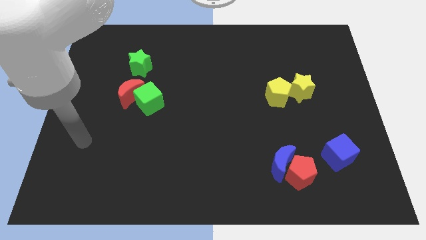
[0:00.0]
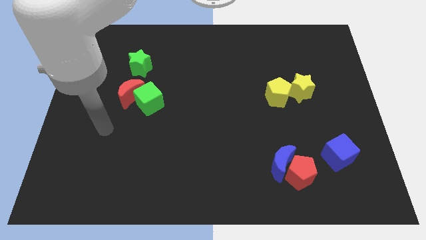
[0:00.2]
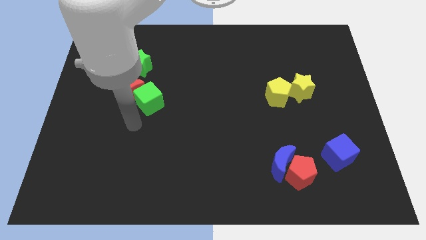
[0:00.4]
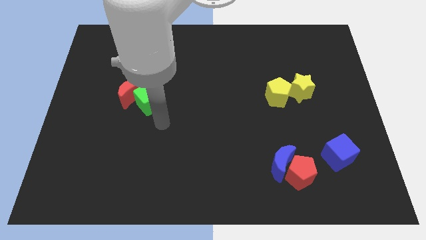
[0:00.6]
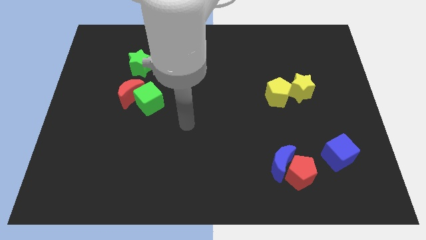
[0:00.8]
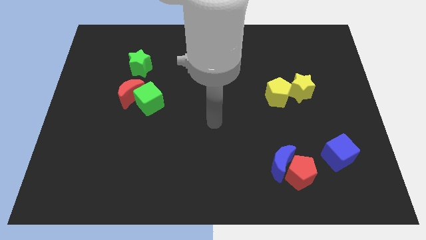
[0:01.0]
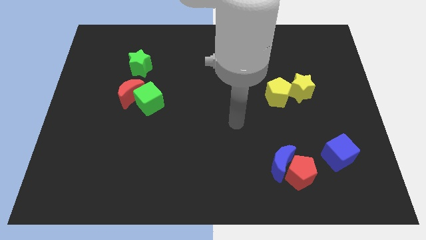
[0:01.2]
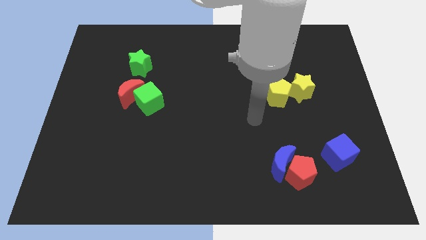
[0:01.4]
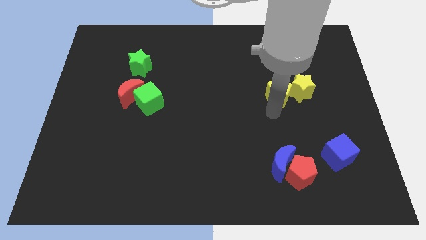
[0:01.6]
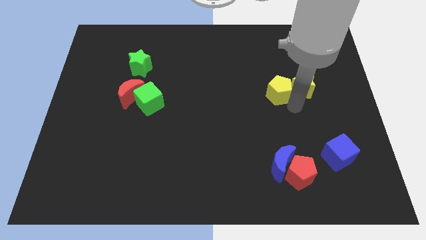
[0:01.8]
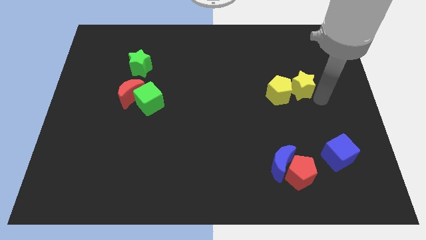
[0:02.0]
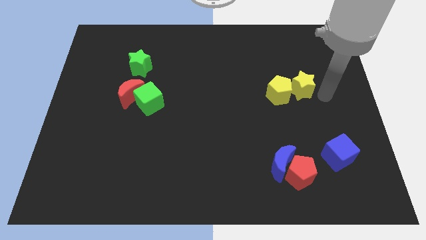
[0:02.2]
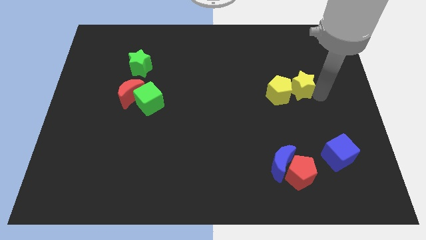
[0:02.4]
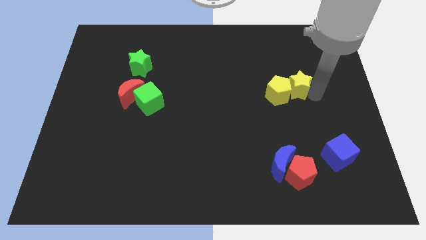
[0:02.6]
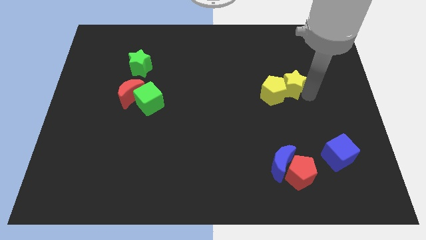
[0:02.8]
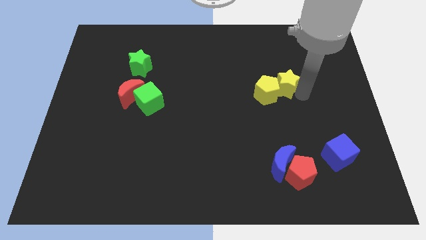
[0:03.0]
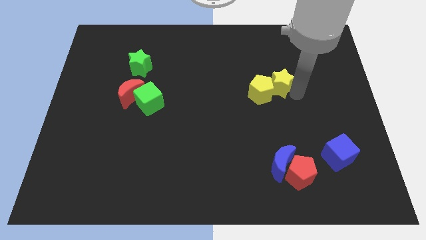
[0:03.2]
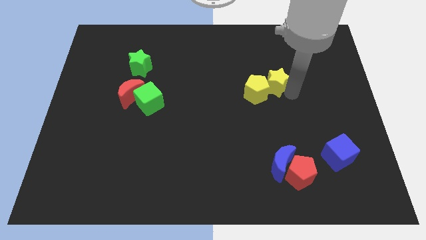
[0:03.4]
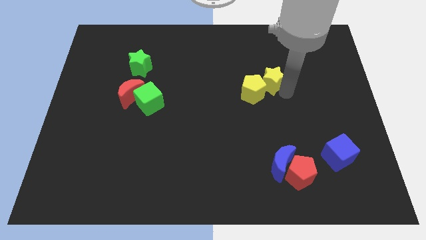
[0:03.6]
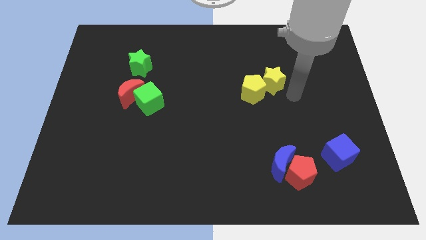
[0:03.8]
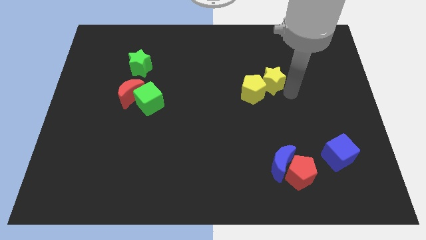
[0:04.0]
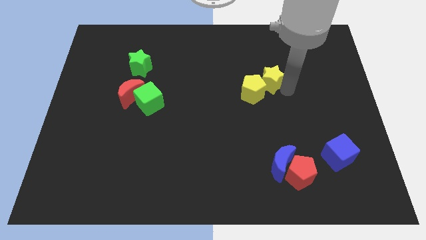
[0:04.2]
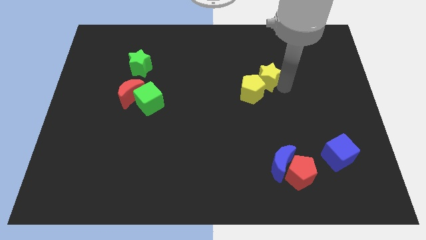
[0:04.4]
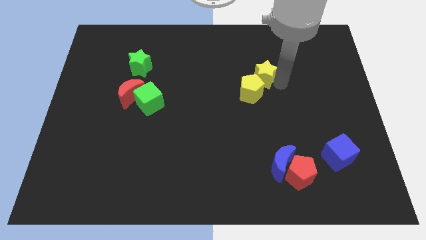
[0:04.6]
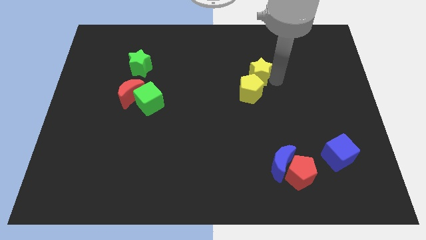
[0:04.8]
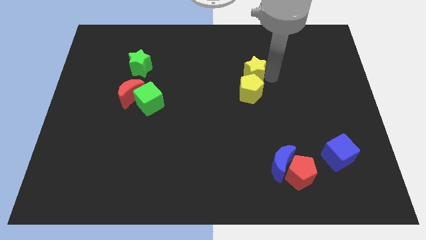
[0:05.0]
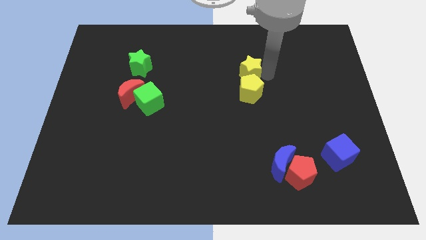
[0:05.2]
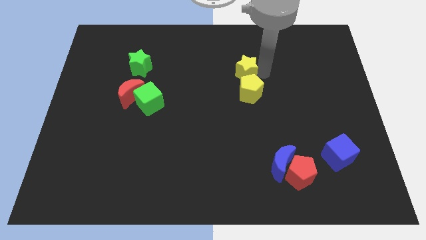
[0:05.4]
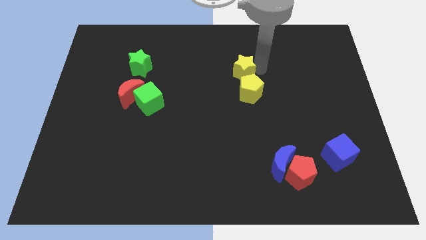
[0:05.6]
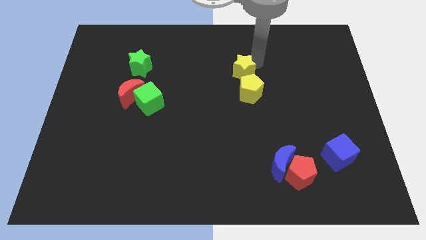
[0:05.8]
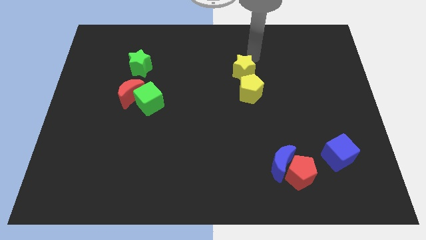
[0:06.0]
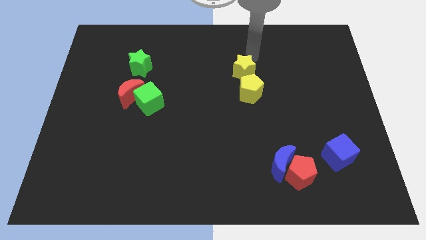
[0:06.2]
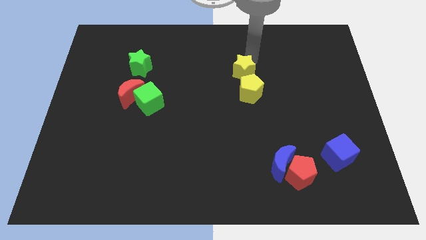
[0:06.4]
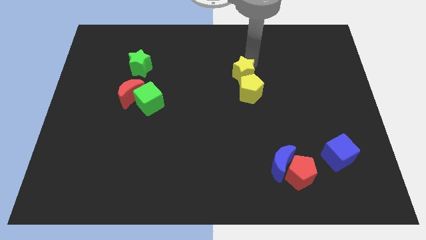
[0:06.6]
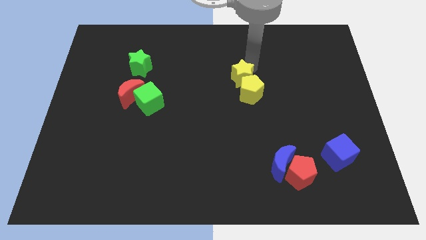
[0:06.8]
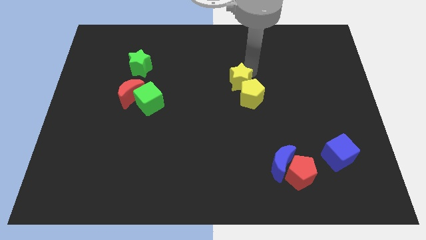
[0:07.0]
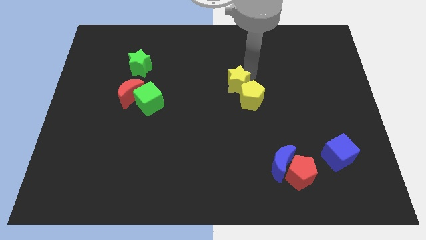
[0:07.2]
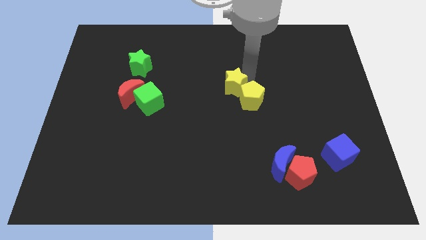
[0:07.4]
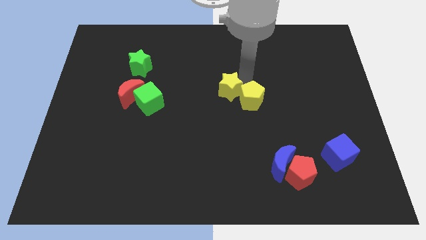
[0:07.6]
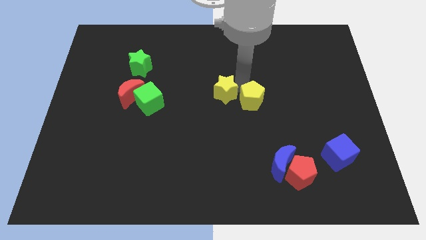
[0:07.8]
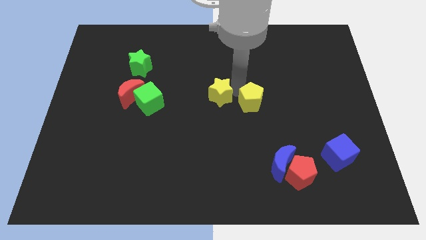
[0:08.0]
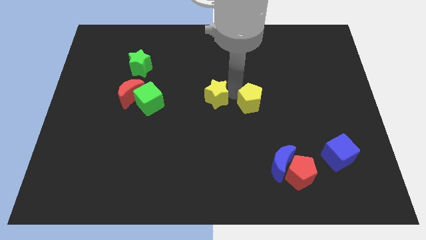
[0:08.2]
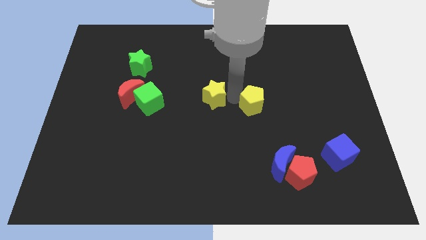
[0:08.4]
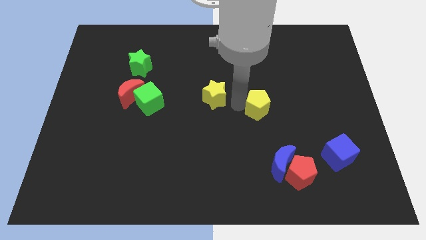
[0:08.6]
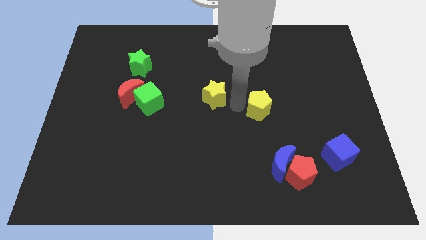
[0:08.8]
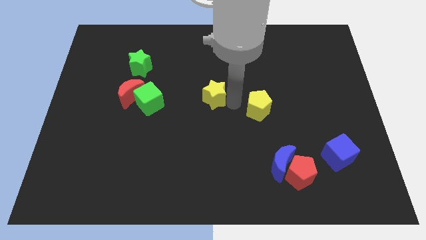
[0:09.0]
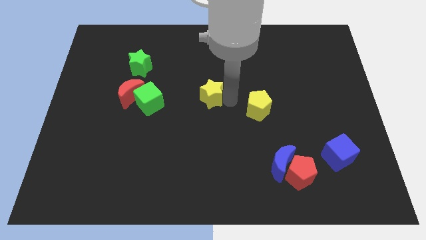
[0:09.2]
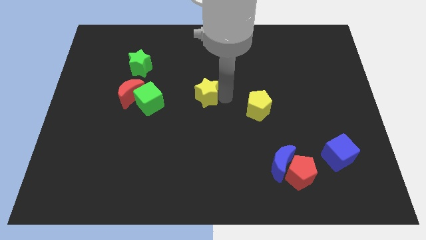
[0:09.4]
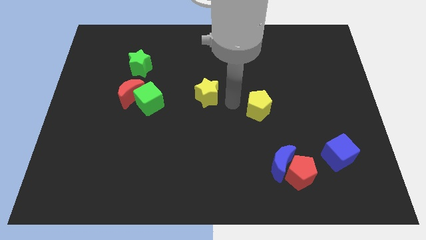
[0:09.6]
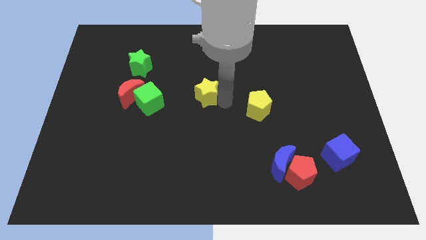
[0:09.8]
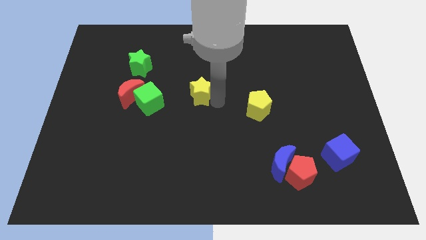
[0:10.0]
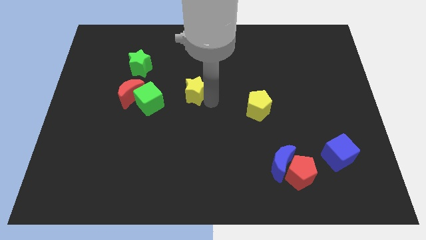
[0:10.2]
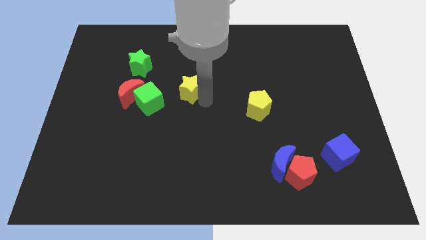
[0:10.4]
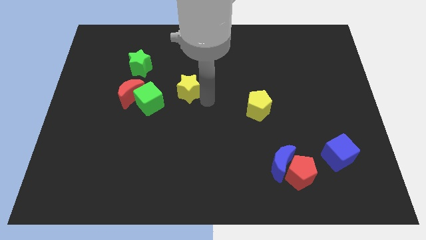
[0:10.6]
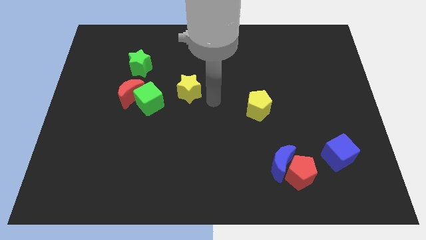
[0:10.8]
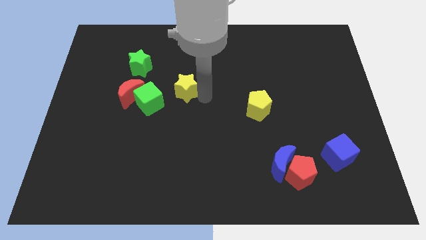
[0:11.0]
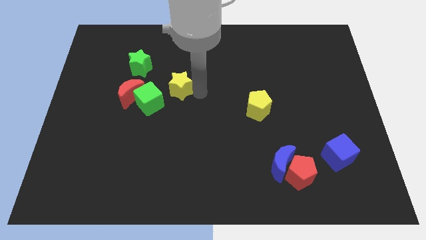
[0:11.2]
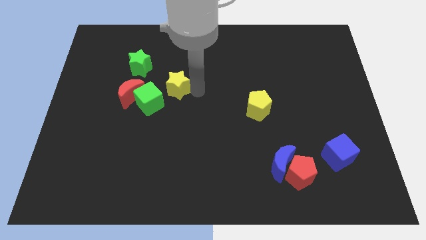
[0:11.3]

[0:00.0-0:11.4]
push the yellow star diagonally down and to the right of the green star

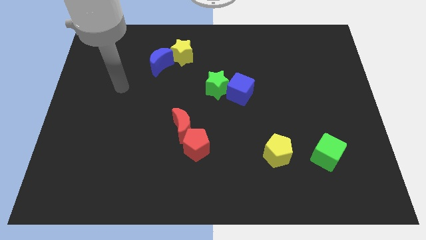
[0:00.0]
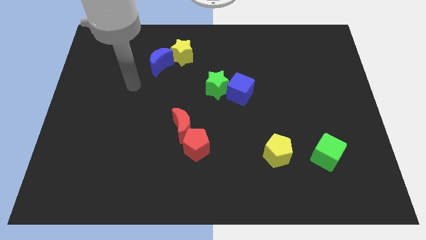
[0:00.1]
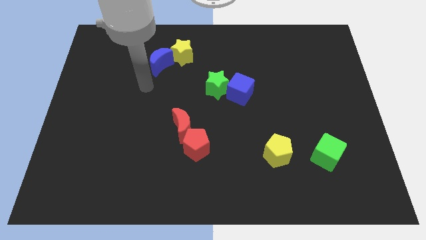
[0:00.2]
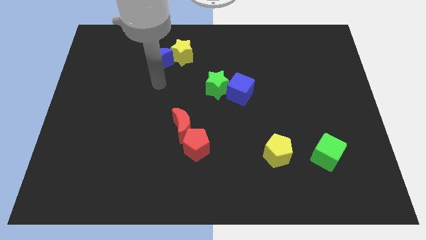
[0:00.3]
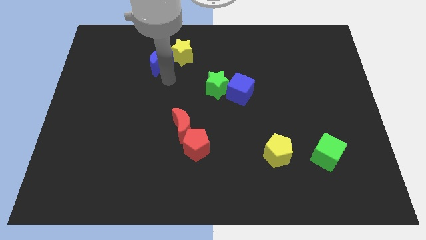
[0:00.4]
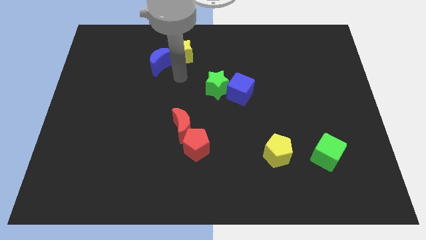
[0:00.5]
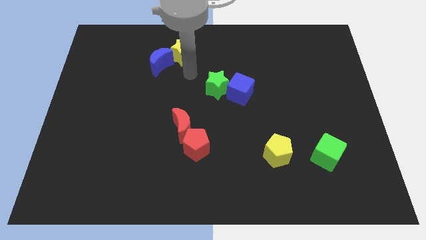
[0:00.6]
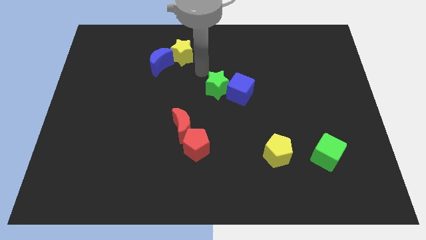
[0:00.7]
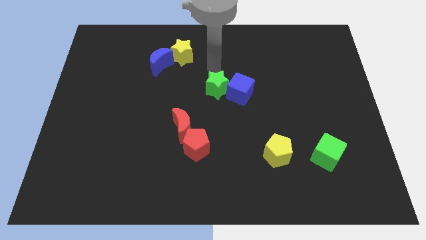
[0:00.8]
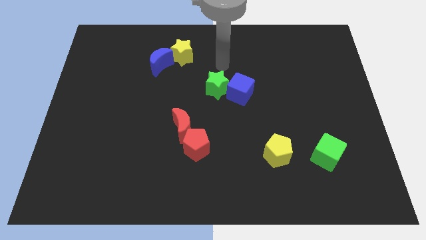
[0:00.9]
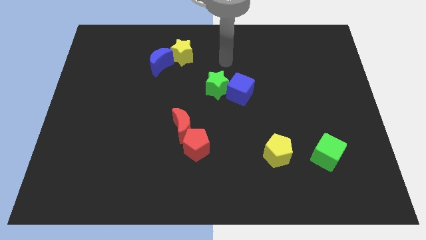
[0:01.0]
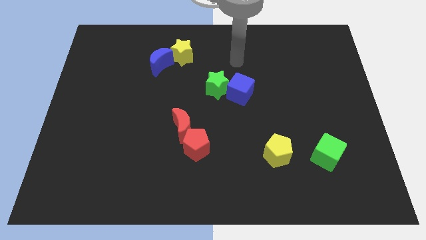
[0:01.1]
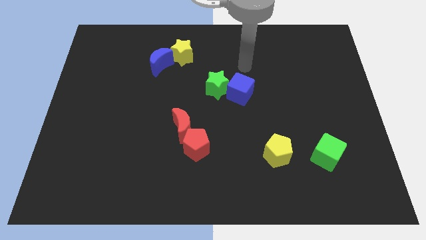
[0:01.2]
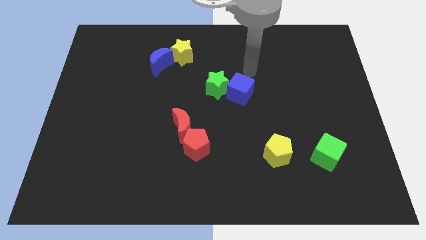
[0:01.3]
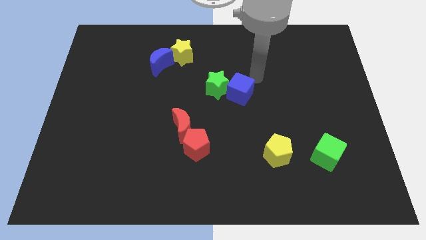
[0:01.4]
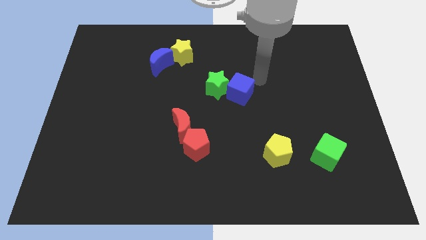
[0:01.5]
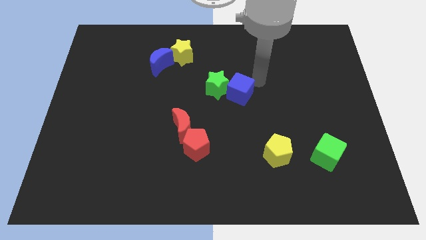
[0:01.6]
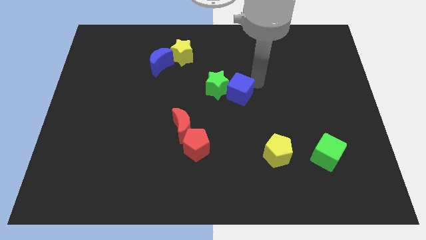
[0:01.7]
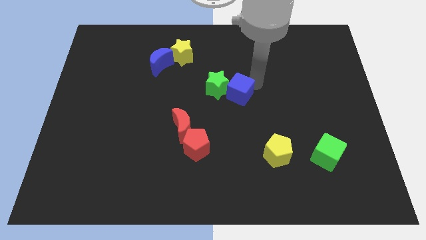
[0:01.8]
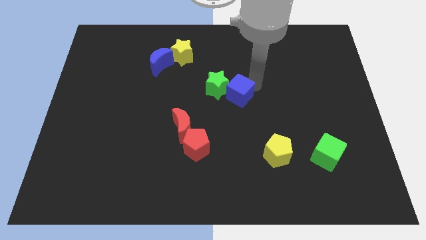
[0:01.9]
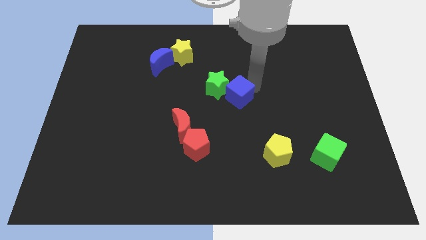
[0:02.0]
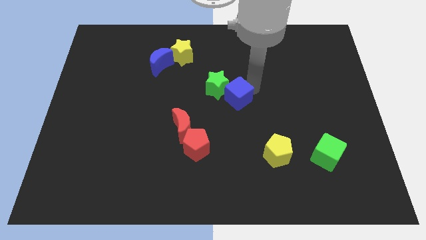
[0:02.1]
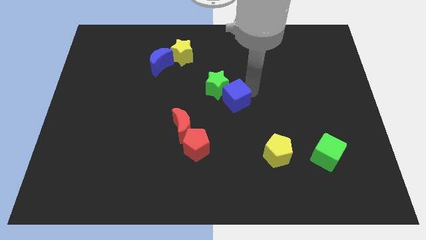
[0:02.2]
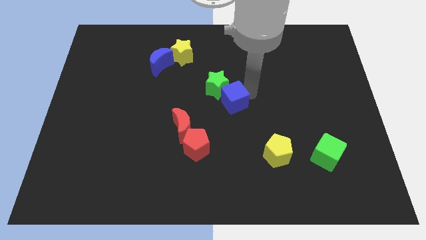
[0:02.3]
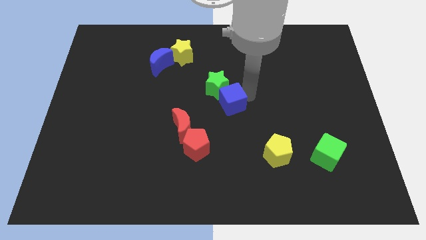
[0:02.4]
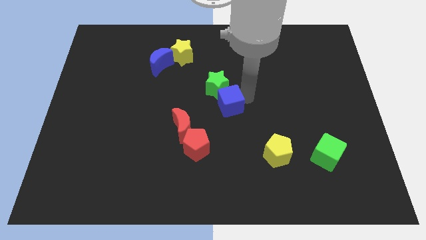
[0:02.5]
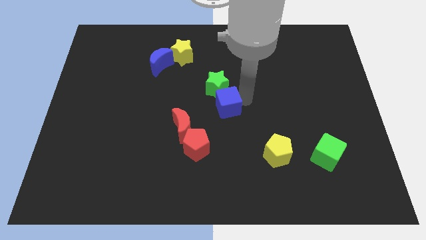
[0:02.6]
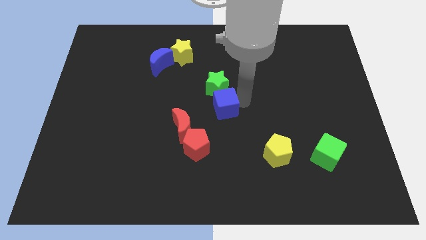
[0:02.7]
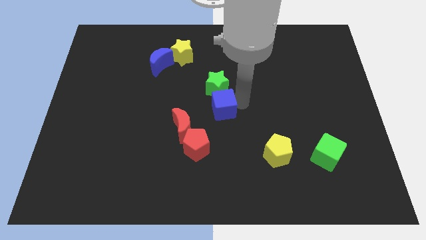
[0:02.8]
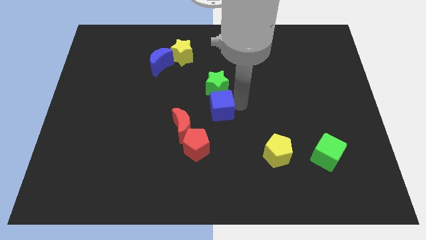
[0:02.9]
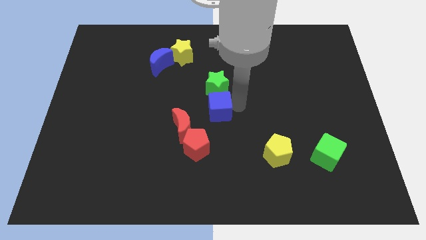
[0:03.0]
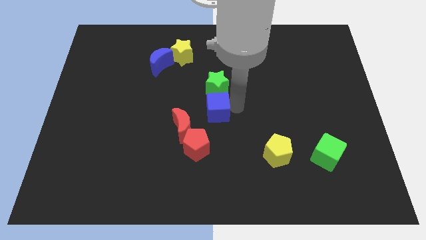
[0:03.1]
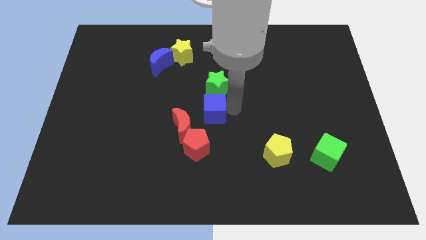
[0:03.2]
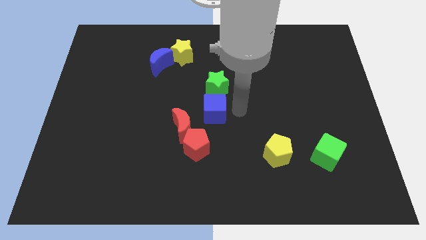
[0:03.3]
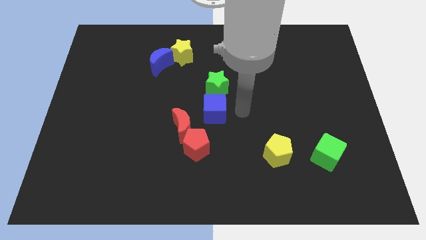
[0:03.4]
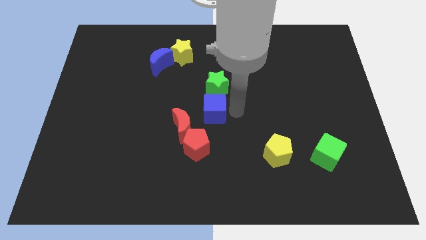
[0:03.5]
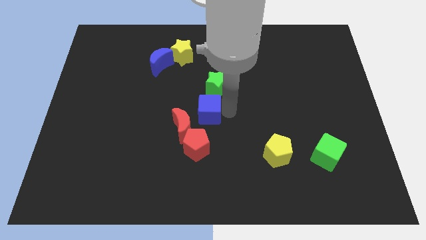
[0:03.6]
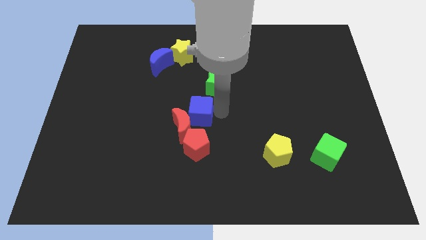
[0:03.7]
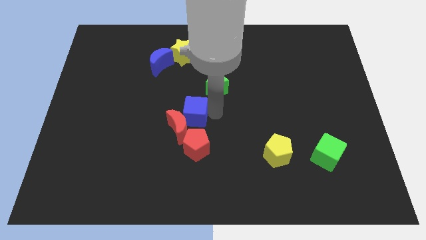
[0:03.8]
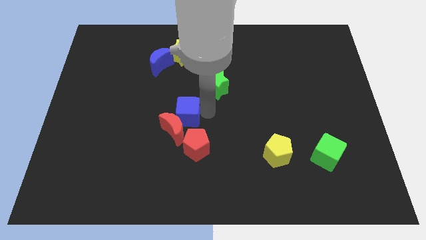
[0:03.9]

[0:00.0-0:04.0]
move the blue cube diagonally up and to the left of the red pentagon
